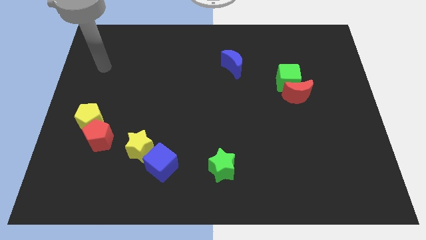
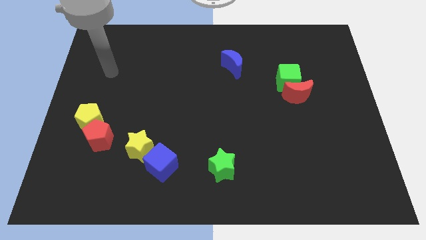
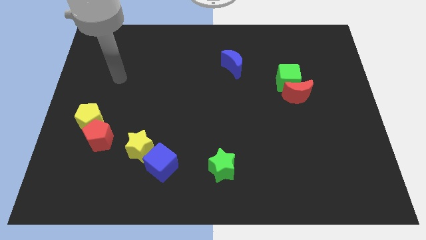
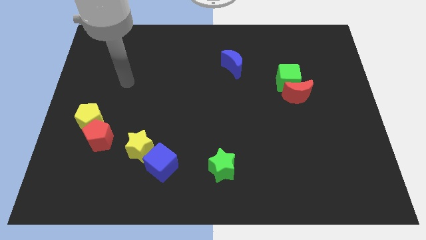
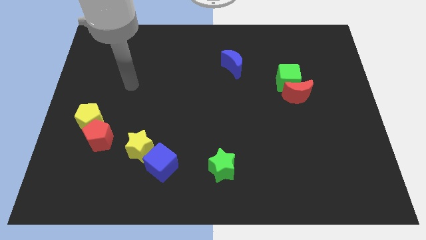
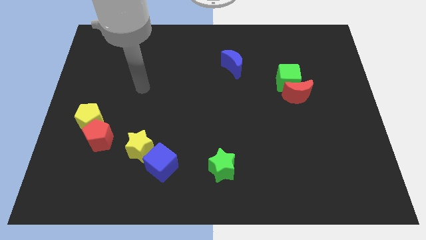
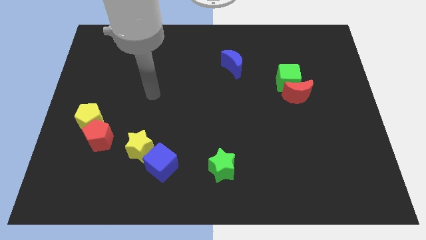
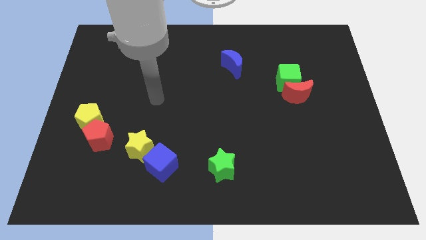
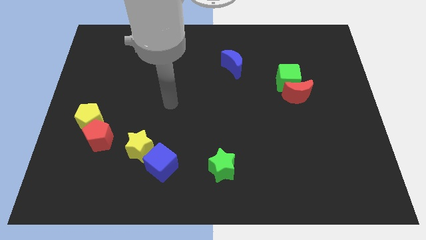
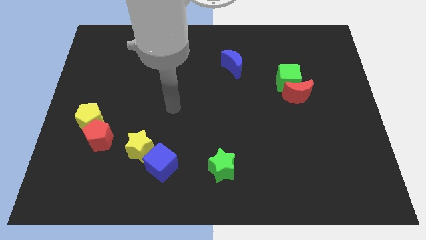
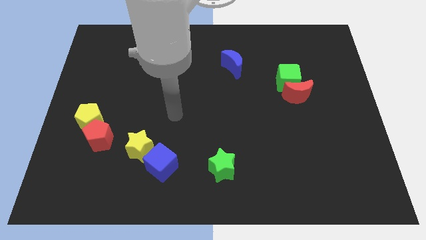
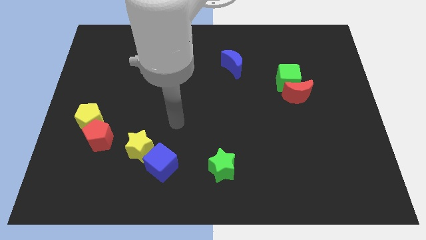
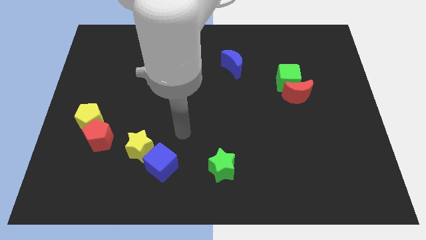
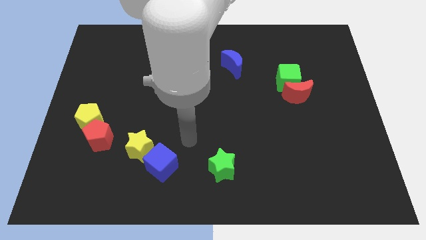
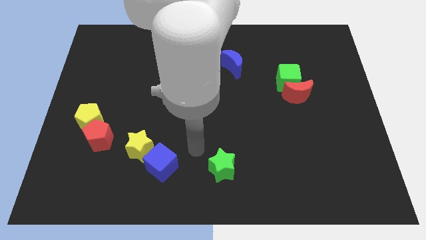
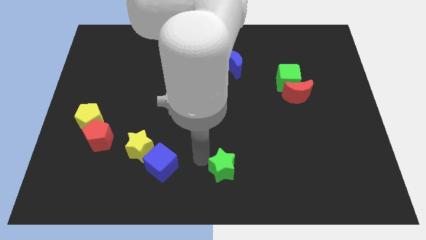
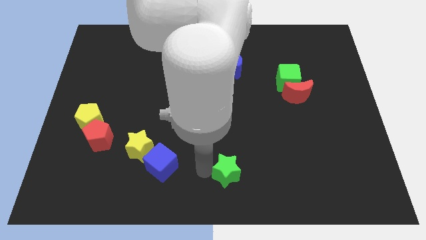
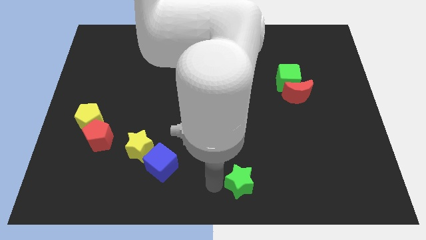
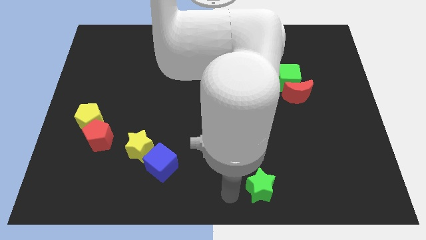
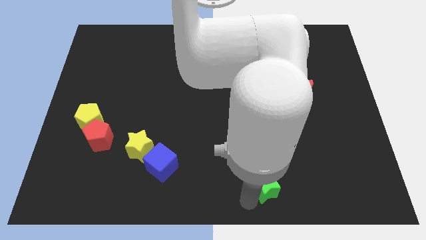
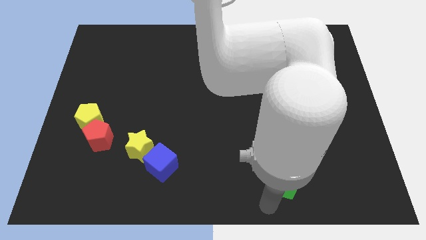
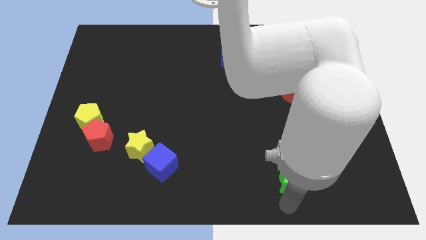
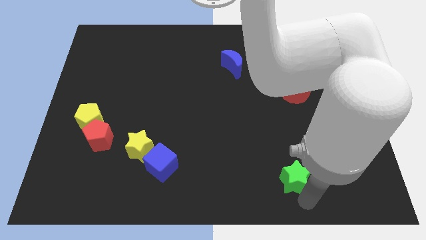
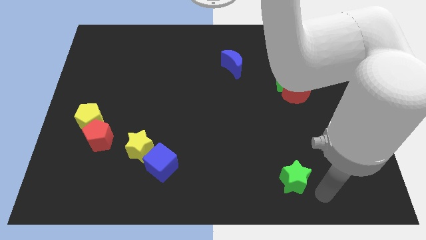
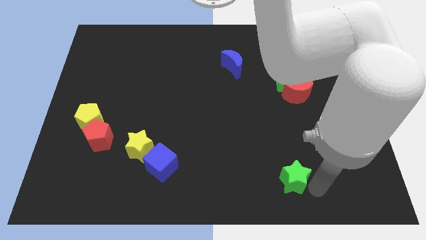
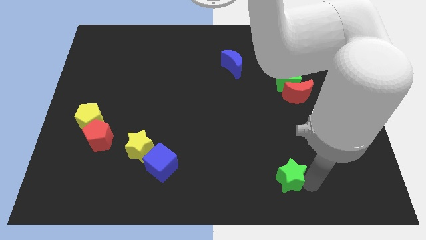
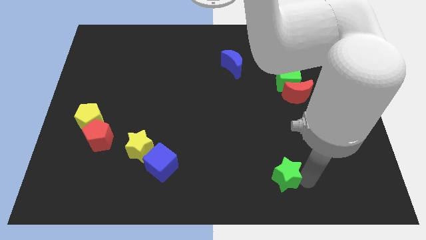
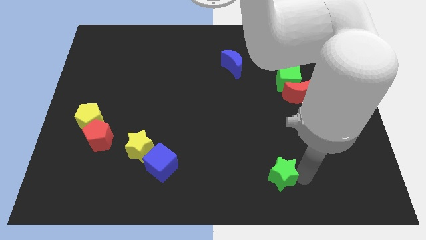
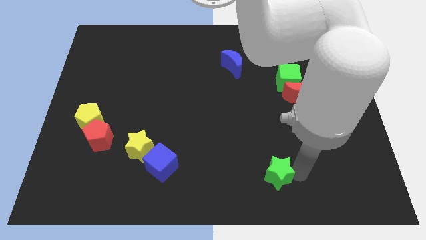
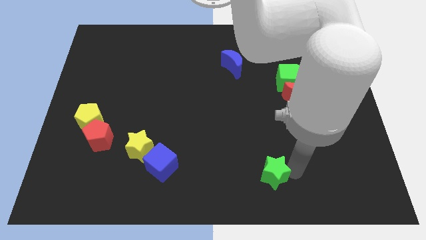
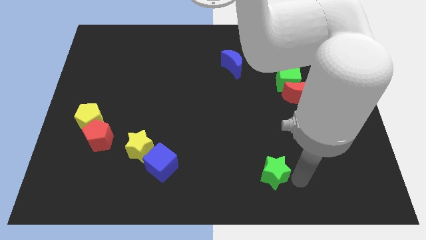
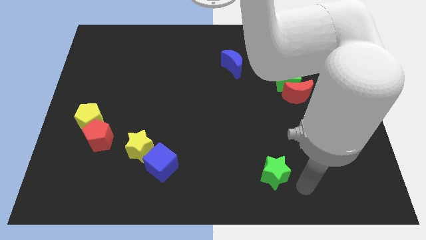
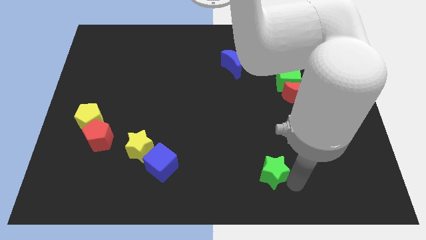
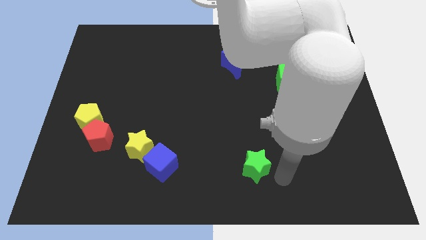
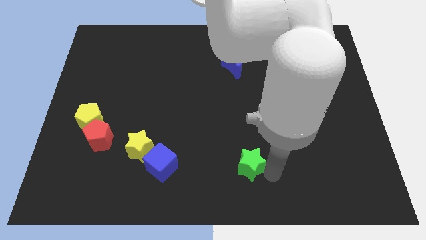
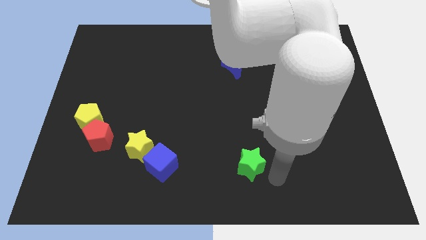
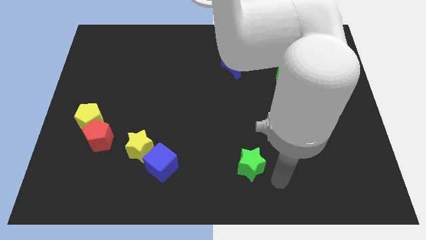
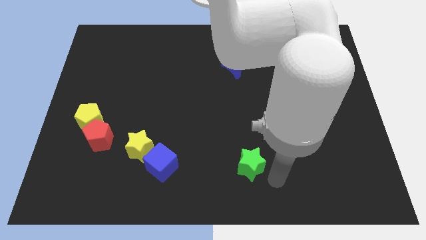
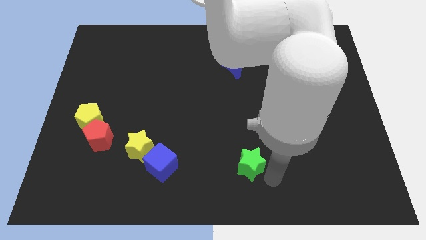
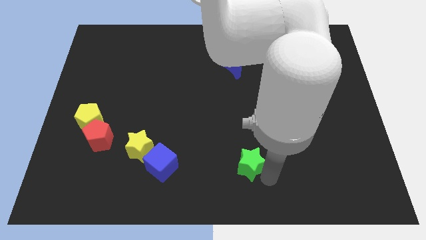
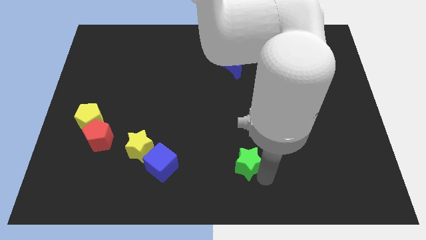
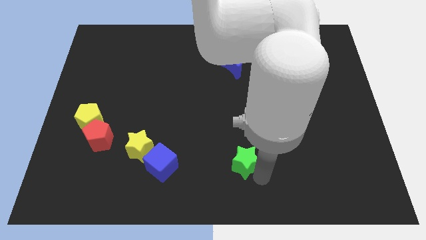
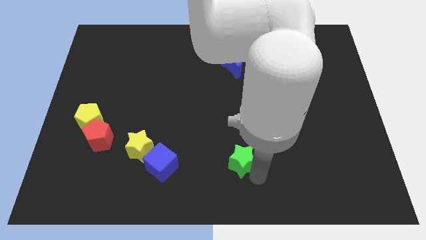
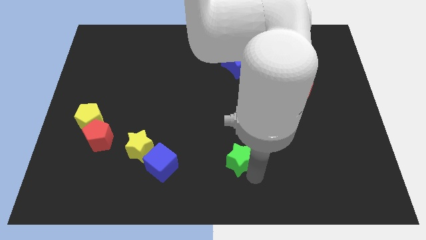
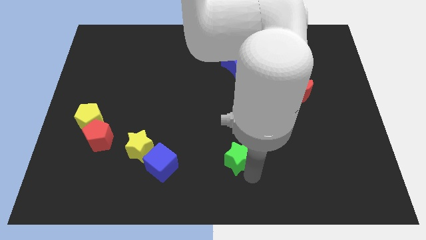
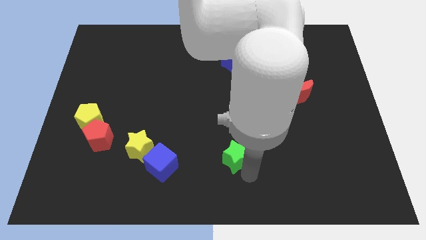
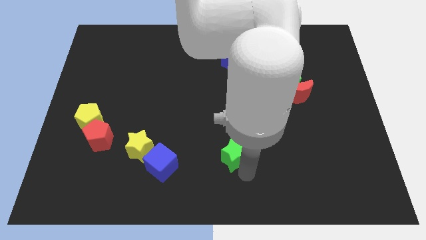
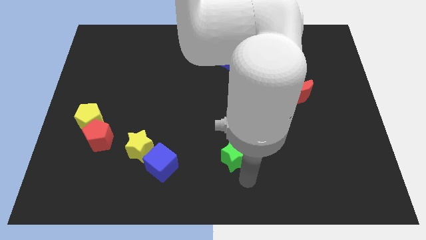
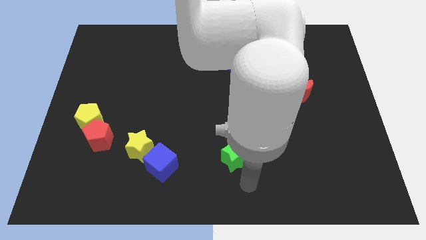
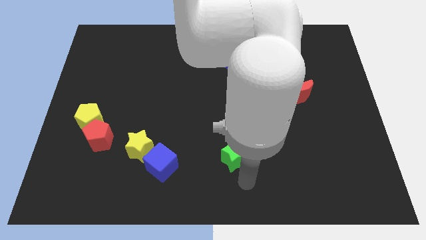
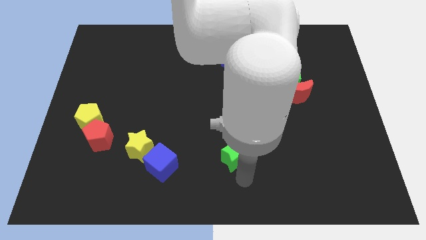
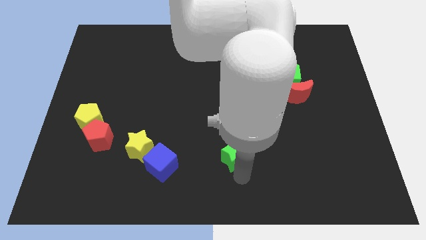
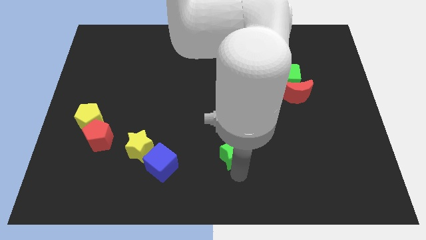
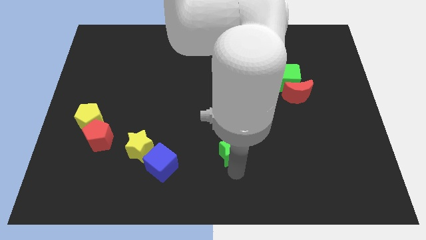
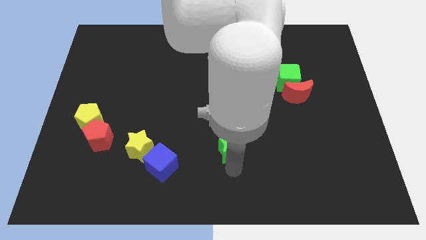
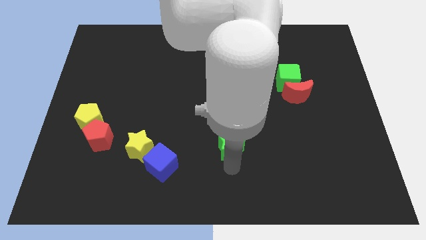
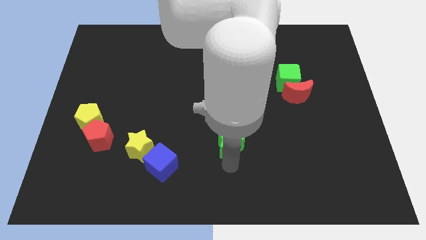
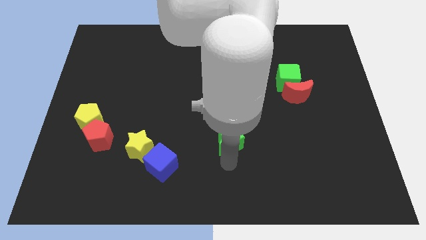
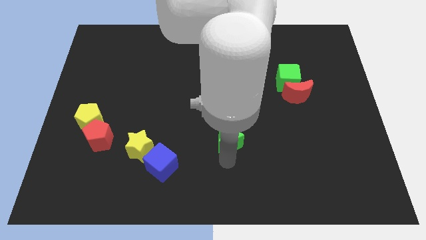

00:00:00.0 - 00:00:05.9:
move the green star to the middle
